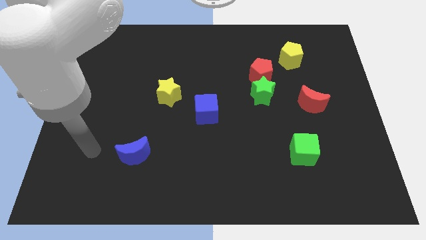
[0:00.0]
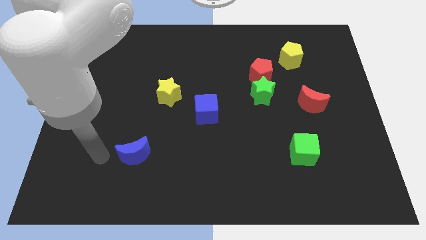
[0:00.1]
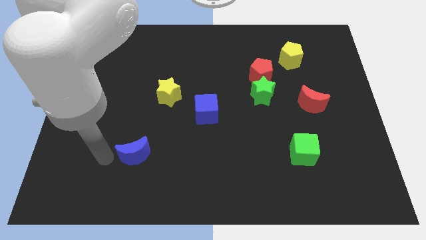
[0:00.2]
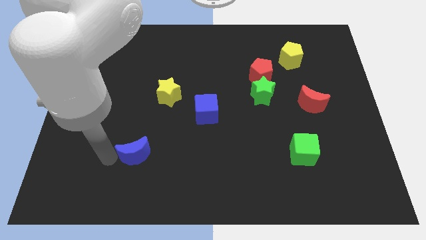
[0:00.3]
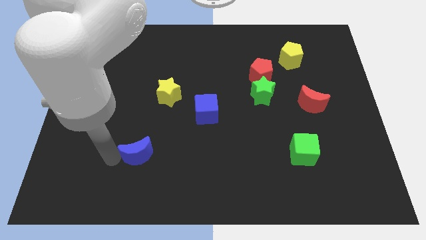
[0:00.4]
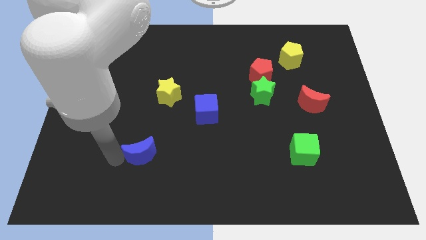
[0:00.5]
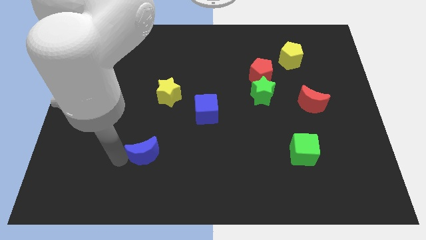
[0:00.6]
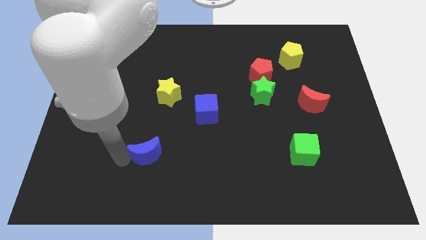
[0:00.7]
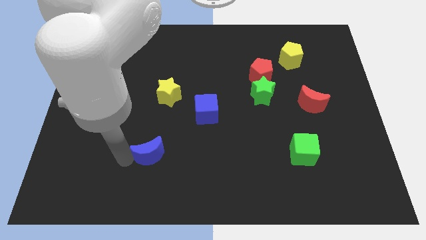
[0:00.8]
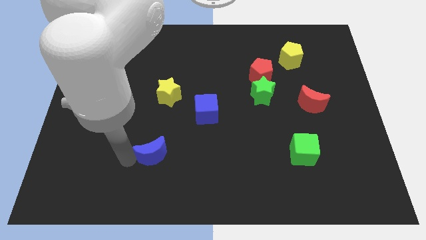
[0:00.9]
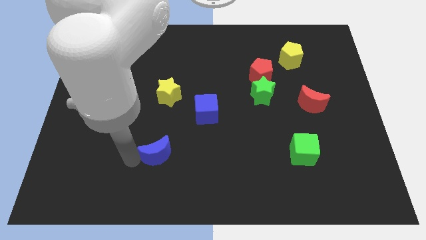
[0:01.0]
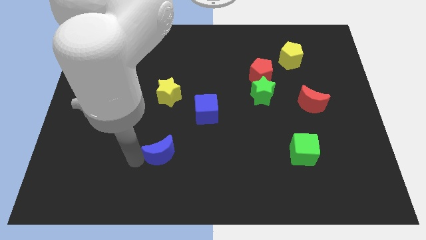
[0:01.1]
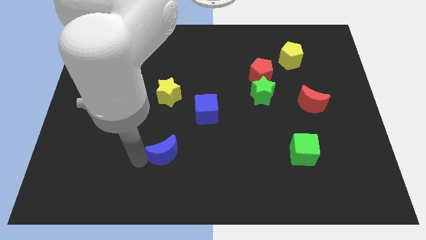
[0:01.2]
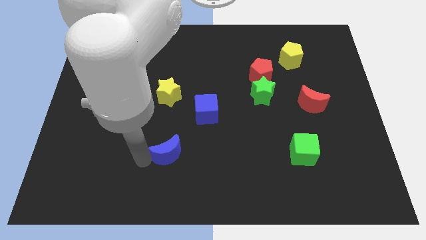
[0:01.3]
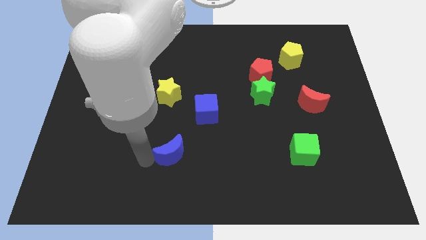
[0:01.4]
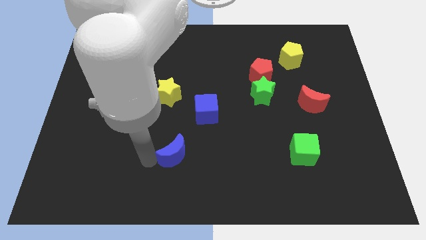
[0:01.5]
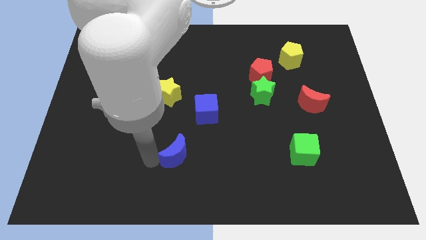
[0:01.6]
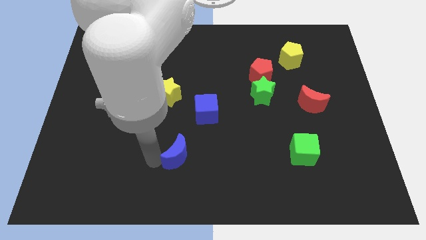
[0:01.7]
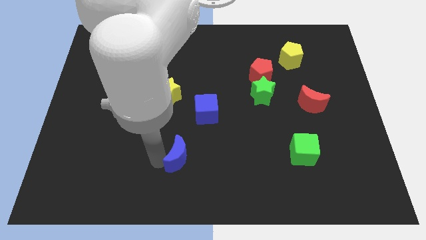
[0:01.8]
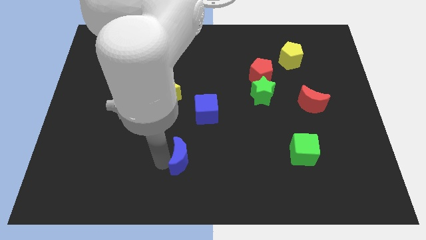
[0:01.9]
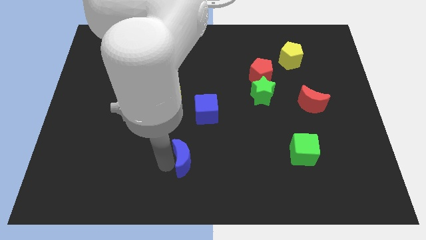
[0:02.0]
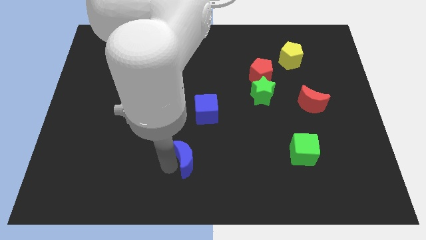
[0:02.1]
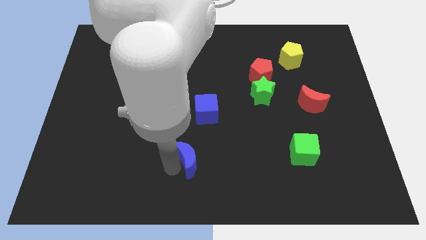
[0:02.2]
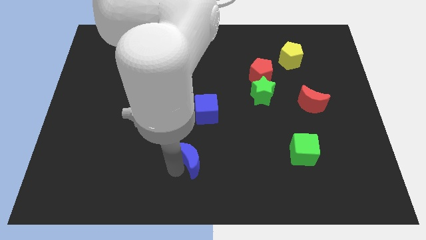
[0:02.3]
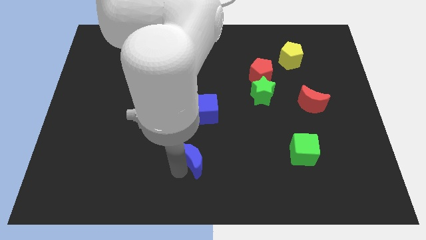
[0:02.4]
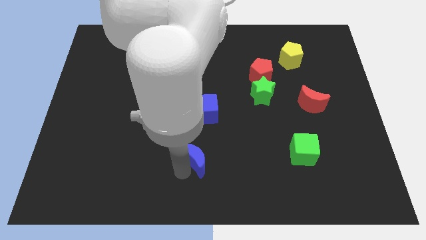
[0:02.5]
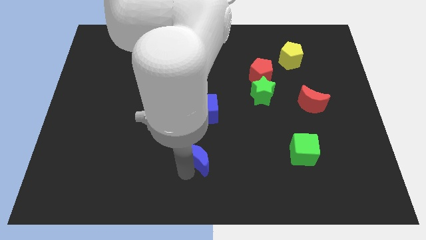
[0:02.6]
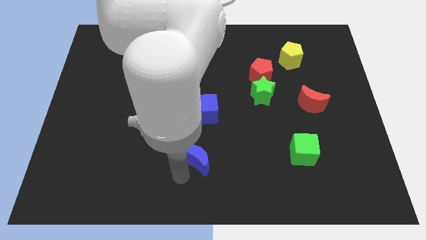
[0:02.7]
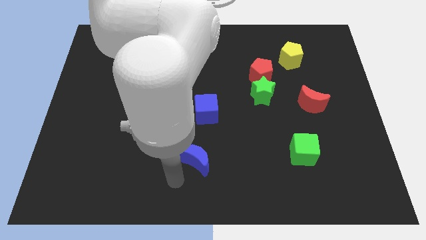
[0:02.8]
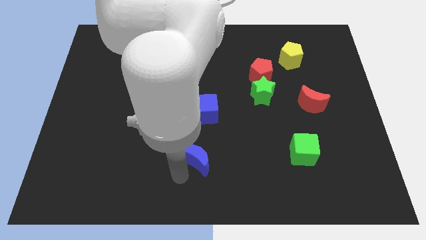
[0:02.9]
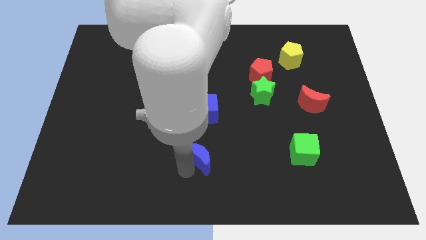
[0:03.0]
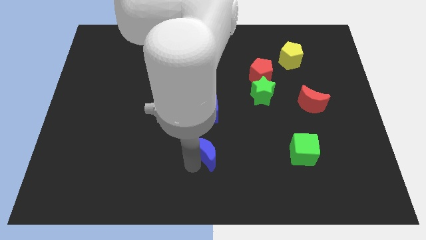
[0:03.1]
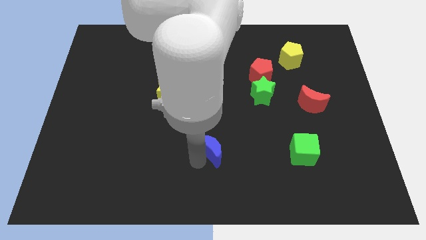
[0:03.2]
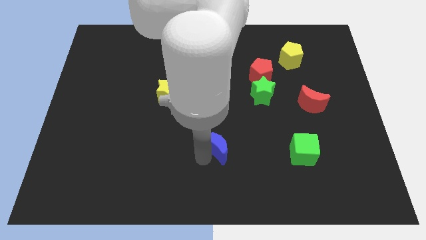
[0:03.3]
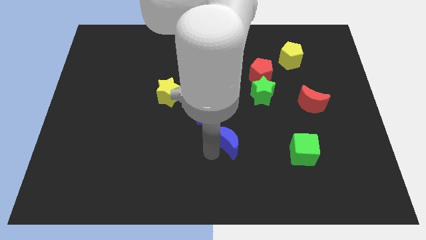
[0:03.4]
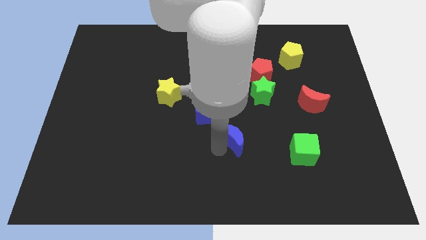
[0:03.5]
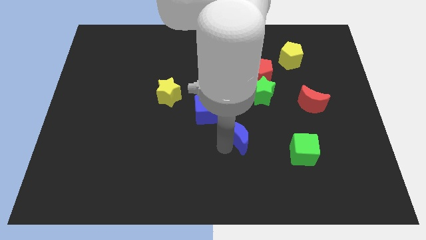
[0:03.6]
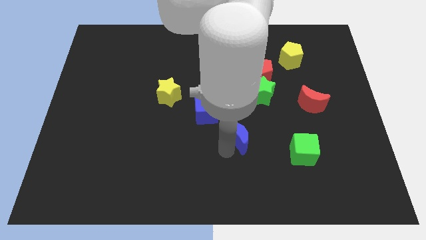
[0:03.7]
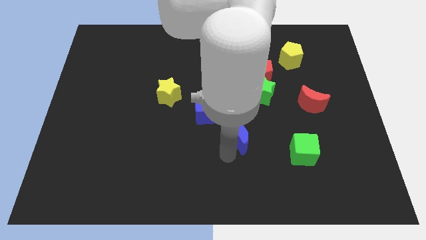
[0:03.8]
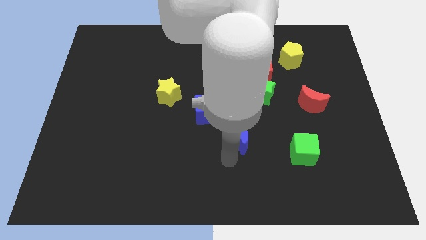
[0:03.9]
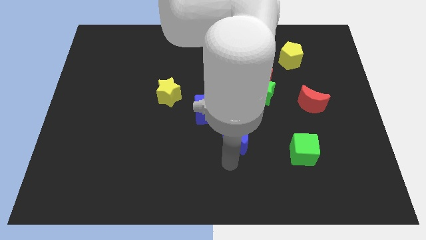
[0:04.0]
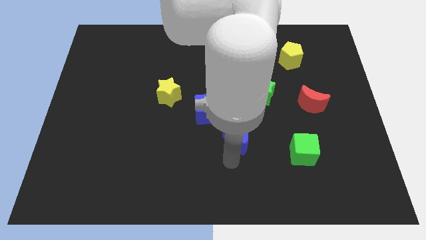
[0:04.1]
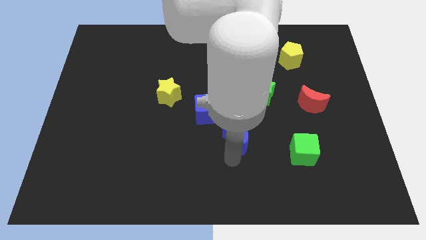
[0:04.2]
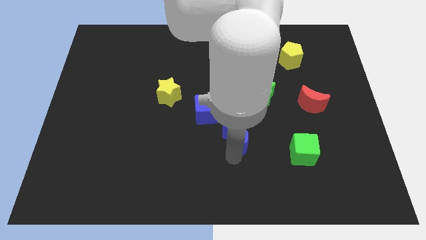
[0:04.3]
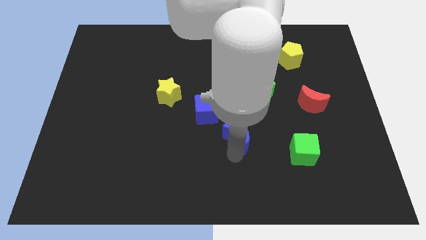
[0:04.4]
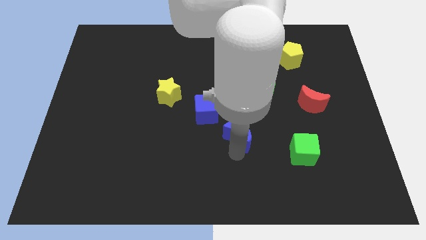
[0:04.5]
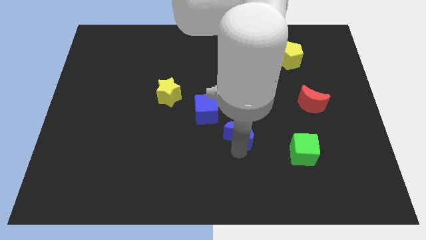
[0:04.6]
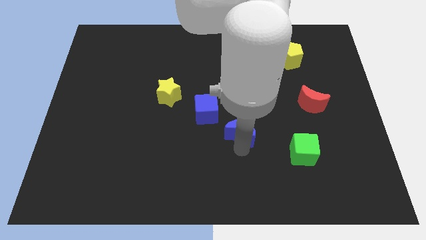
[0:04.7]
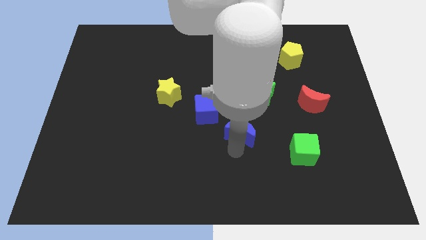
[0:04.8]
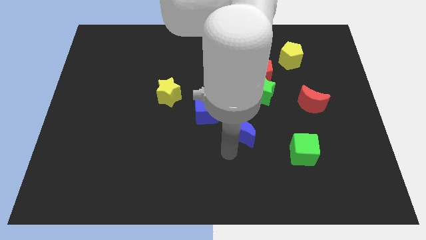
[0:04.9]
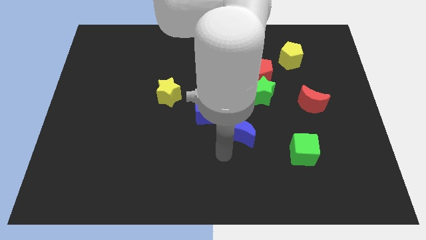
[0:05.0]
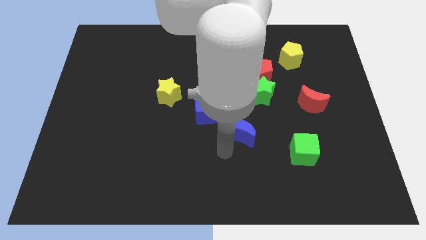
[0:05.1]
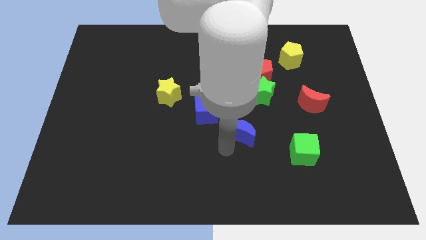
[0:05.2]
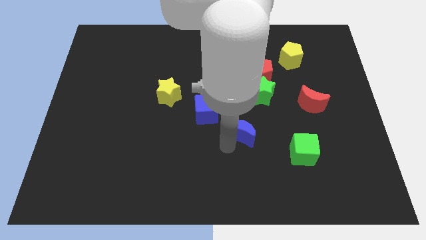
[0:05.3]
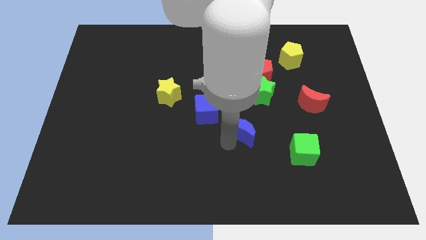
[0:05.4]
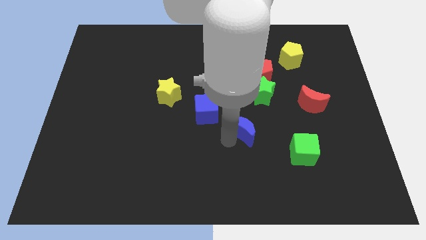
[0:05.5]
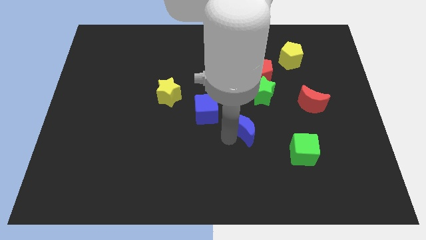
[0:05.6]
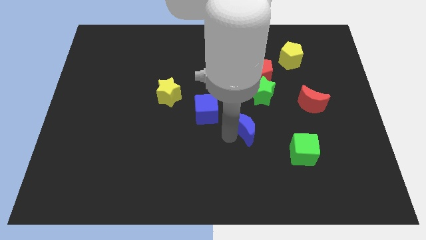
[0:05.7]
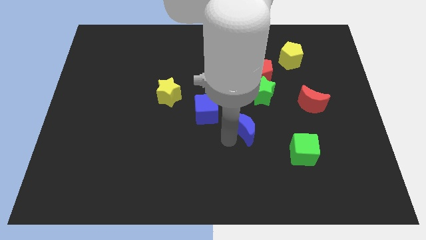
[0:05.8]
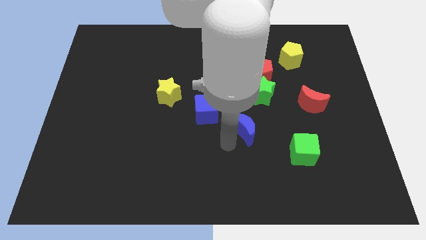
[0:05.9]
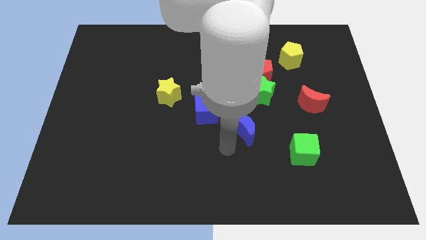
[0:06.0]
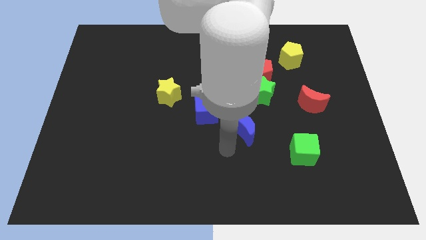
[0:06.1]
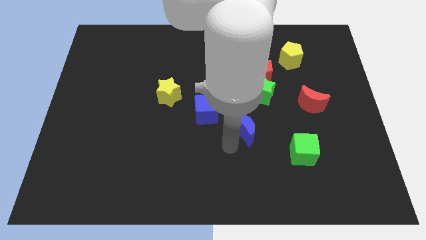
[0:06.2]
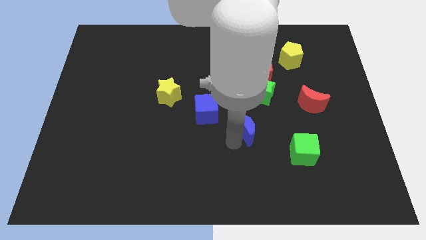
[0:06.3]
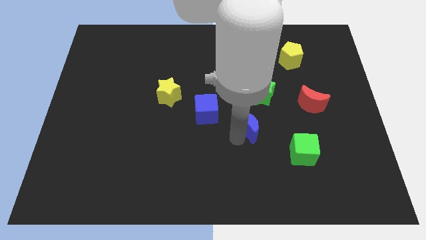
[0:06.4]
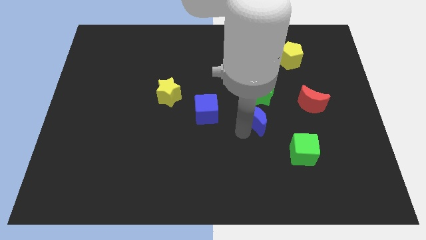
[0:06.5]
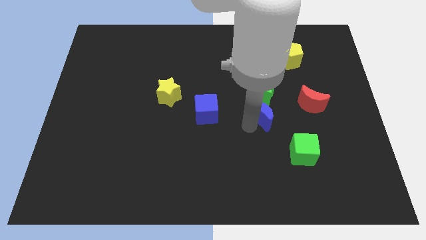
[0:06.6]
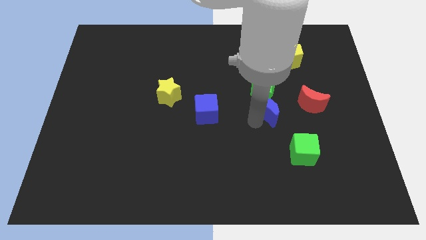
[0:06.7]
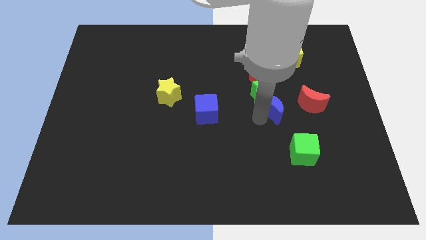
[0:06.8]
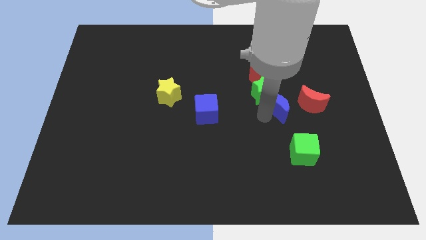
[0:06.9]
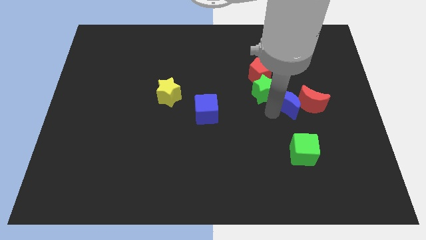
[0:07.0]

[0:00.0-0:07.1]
move the blue moon to the bottom of the yellow pentagon

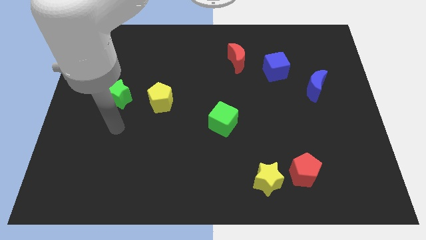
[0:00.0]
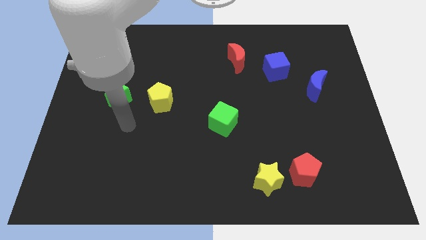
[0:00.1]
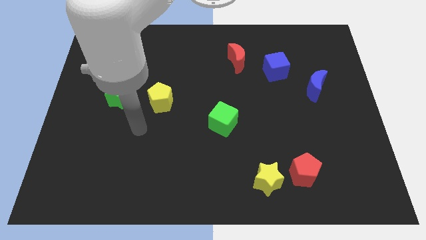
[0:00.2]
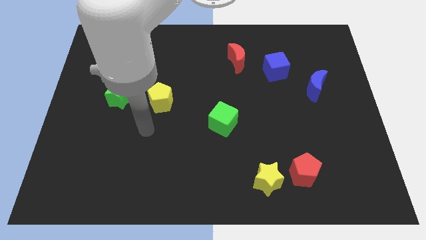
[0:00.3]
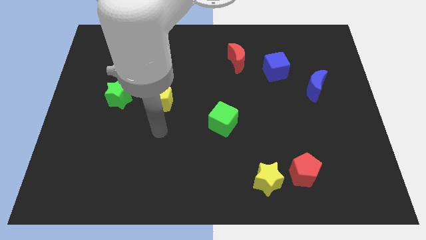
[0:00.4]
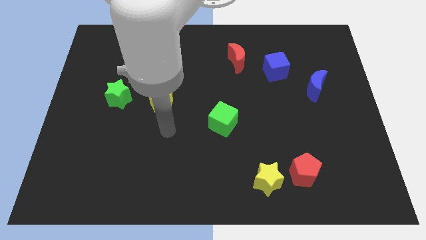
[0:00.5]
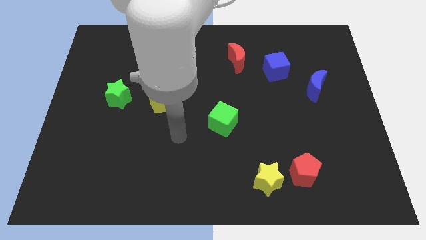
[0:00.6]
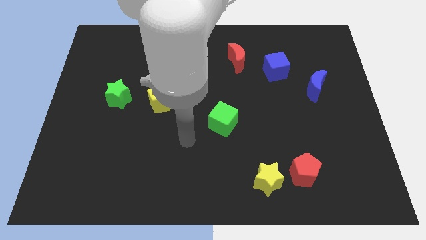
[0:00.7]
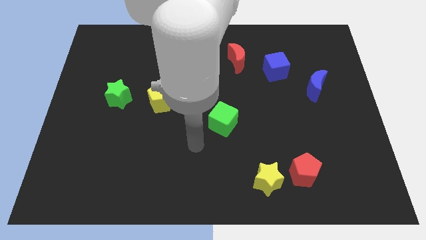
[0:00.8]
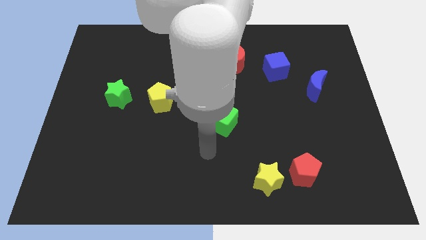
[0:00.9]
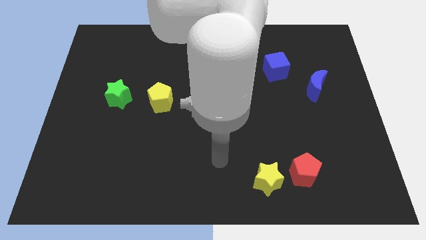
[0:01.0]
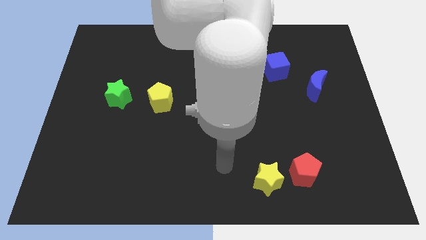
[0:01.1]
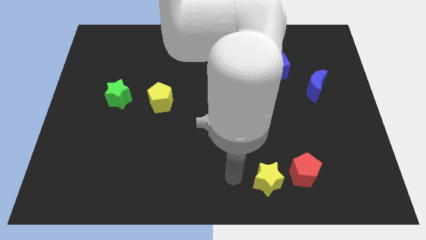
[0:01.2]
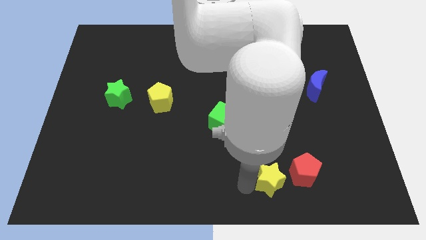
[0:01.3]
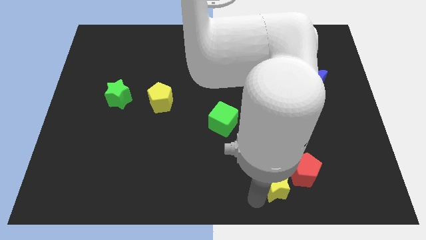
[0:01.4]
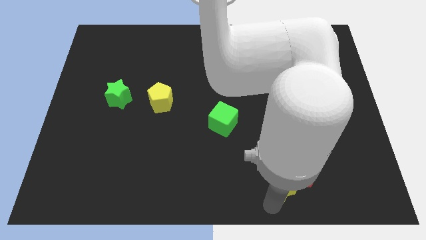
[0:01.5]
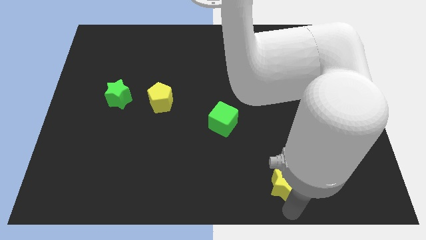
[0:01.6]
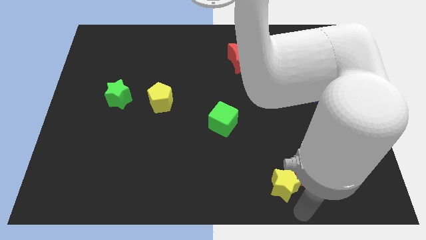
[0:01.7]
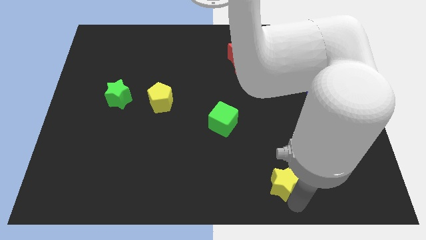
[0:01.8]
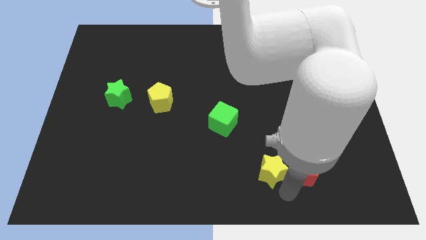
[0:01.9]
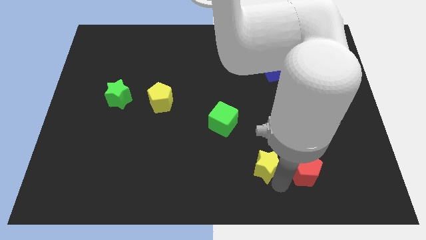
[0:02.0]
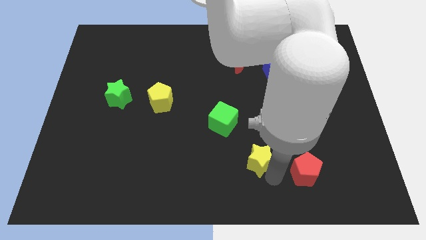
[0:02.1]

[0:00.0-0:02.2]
put the yellow star to the bottom right of the green cube
